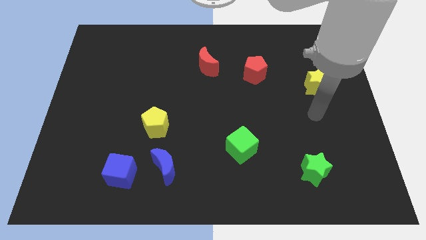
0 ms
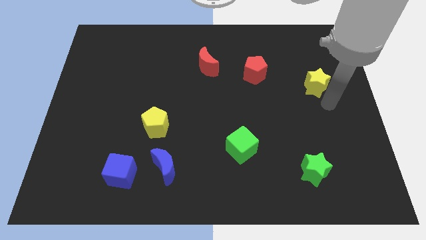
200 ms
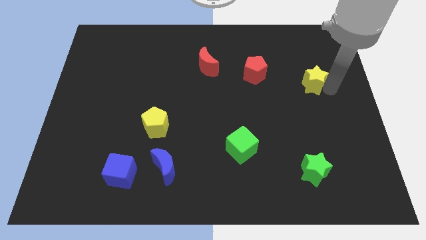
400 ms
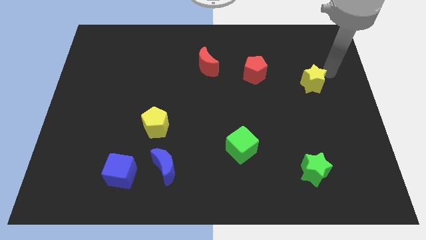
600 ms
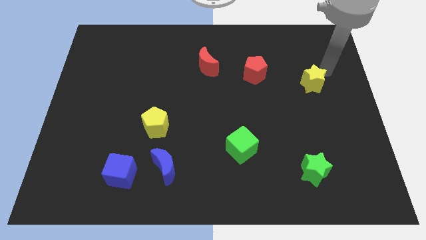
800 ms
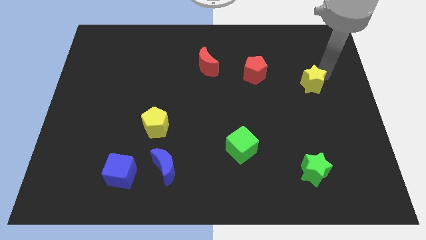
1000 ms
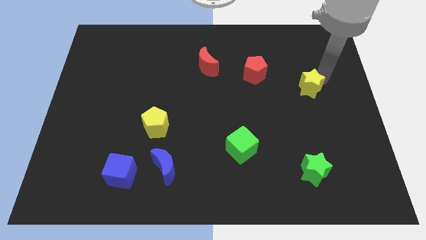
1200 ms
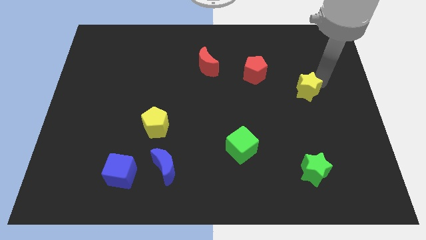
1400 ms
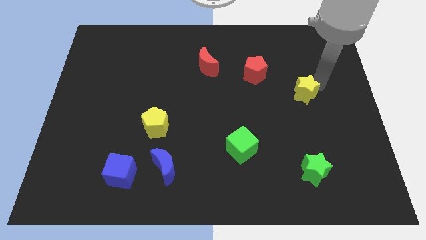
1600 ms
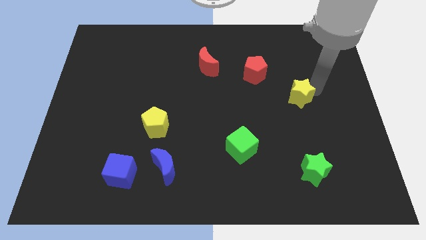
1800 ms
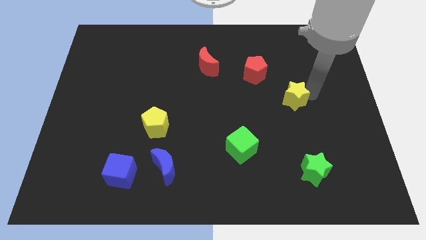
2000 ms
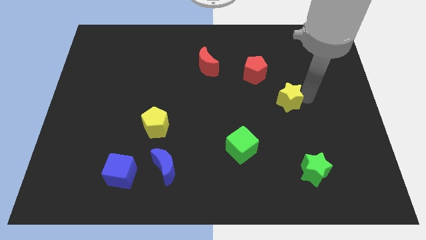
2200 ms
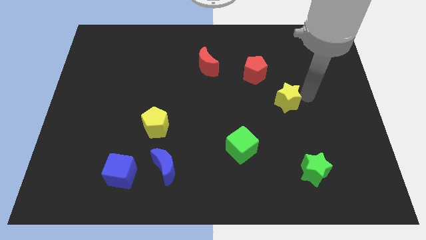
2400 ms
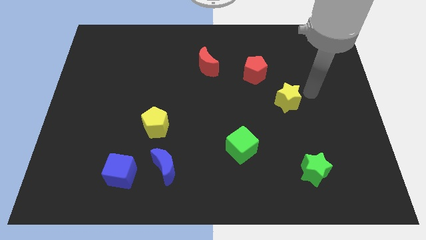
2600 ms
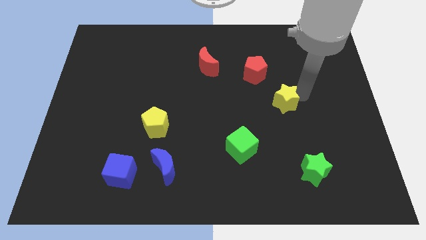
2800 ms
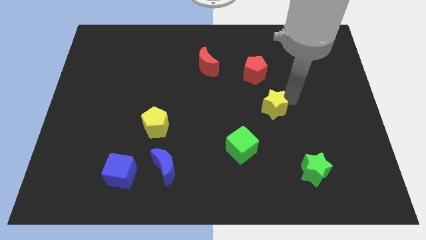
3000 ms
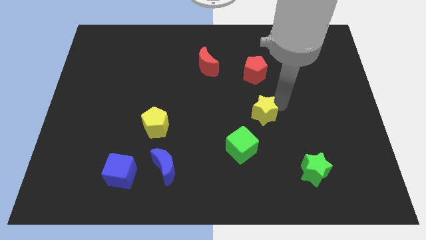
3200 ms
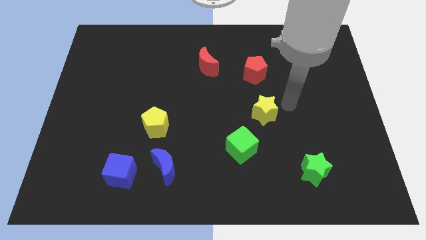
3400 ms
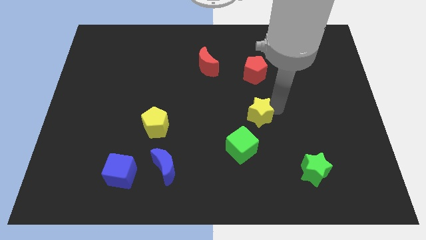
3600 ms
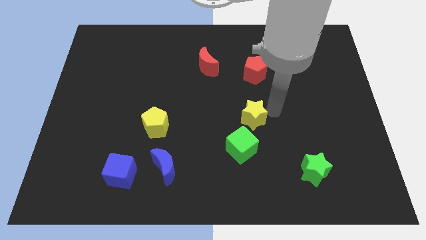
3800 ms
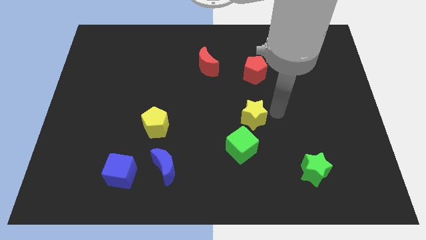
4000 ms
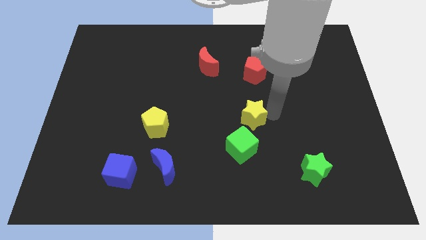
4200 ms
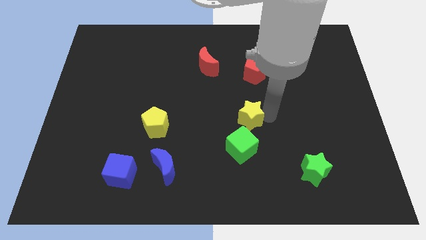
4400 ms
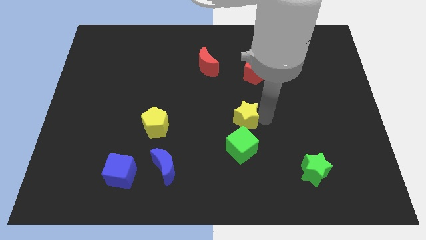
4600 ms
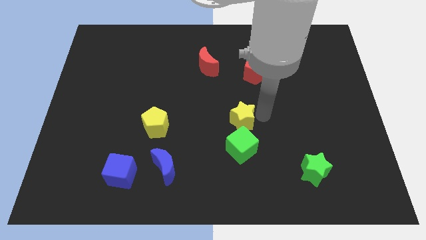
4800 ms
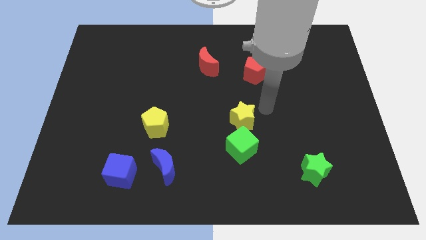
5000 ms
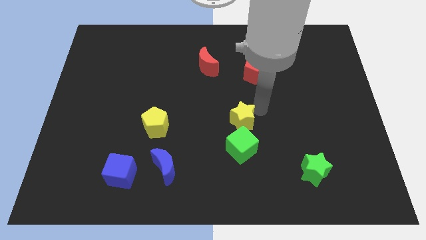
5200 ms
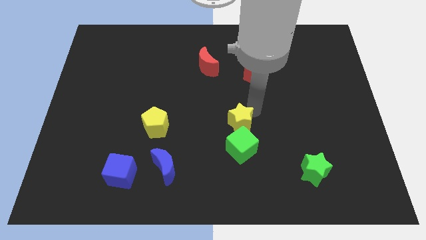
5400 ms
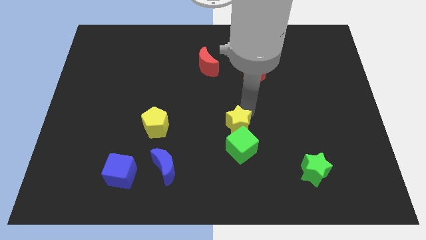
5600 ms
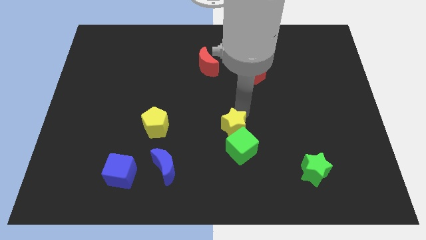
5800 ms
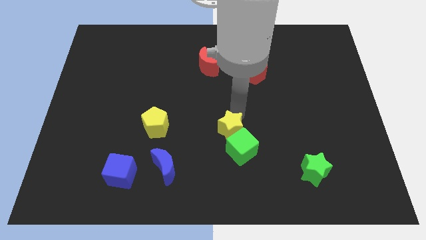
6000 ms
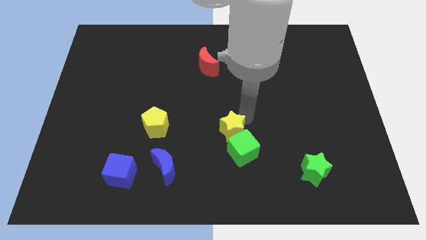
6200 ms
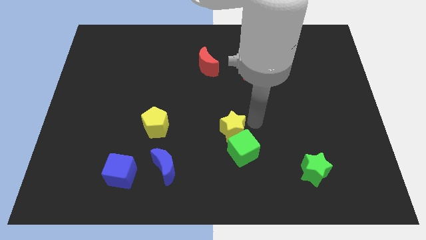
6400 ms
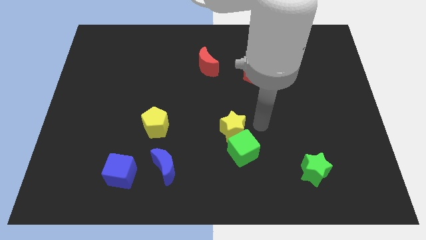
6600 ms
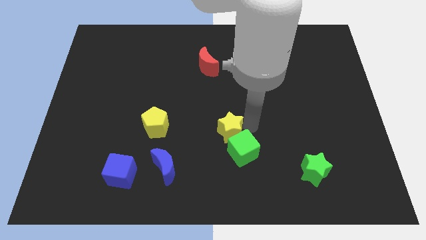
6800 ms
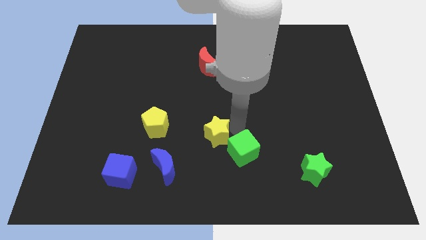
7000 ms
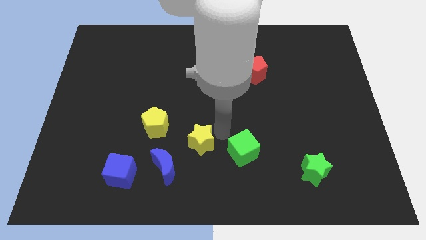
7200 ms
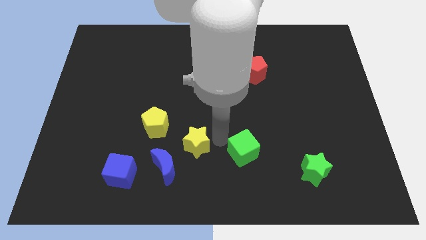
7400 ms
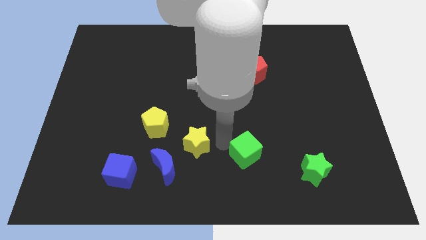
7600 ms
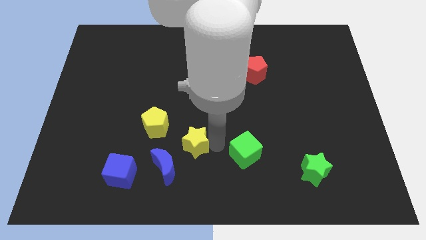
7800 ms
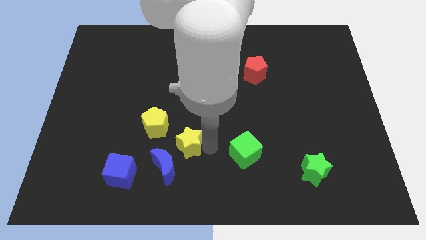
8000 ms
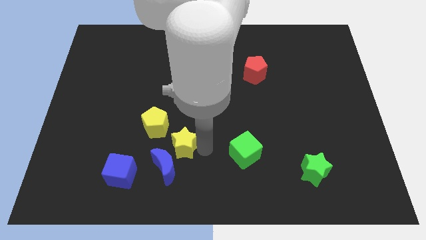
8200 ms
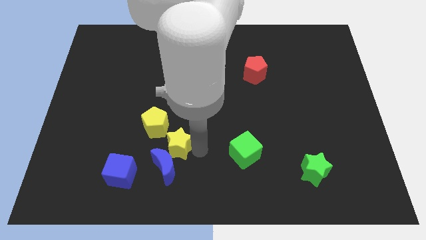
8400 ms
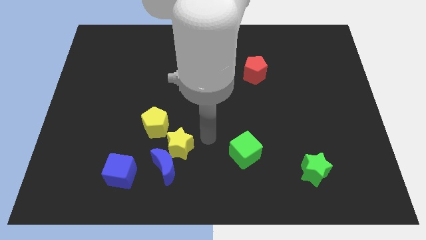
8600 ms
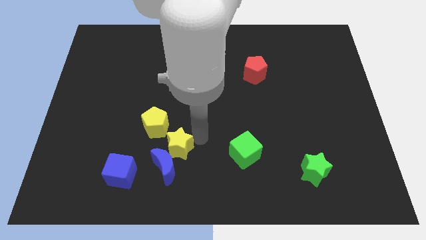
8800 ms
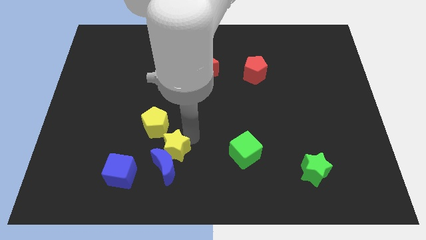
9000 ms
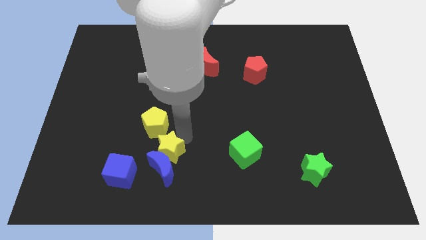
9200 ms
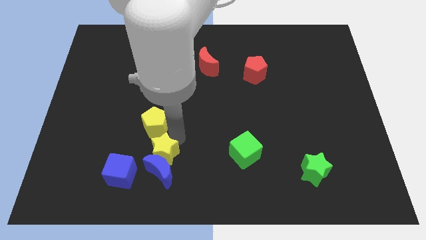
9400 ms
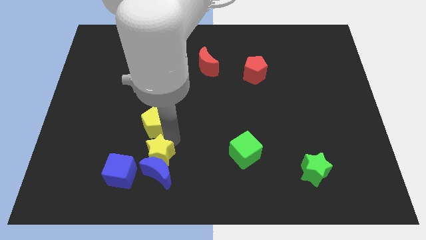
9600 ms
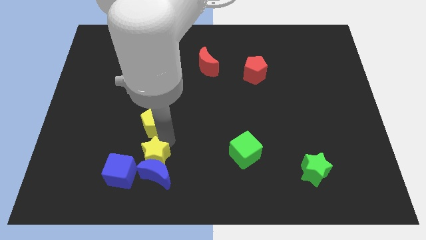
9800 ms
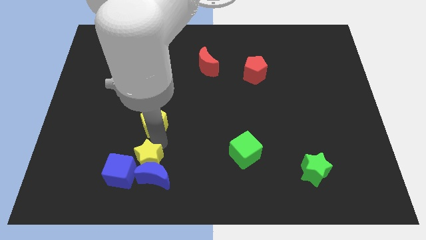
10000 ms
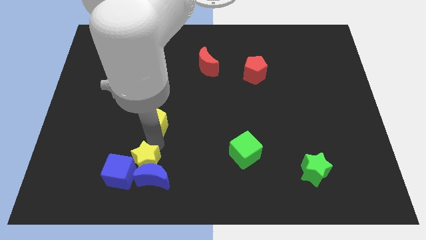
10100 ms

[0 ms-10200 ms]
move the yellow star towards the blue cube

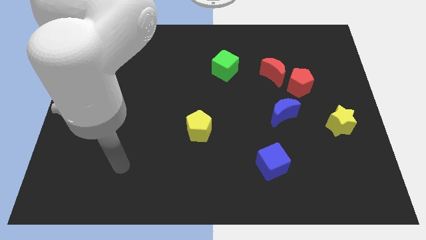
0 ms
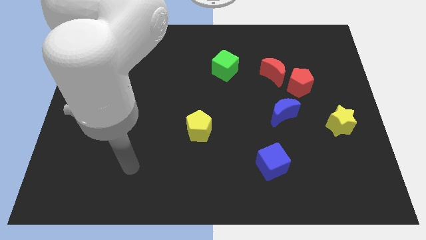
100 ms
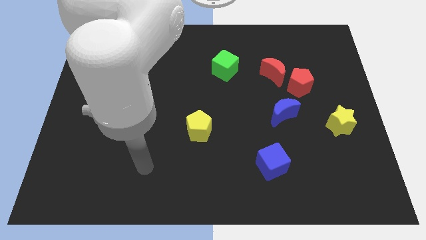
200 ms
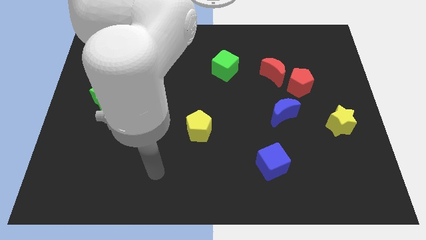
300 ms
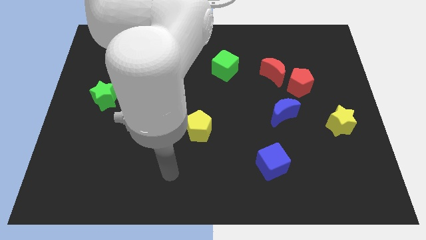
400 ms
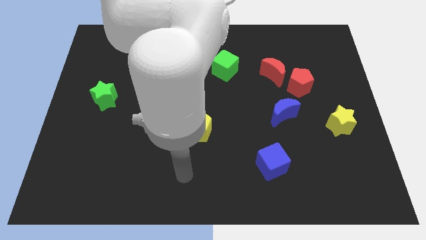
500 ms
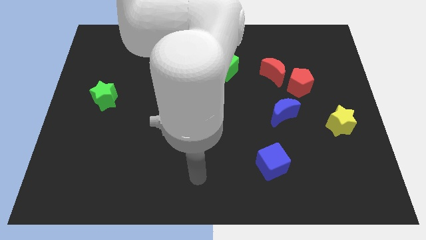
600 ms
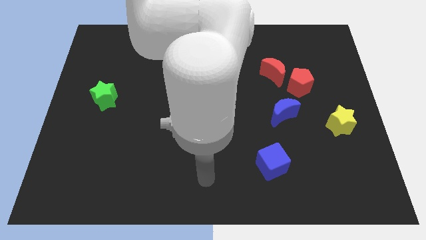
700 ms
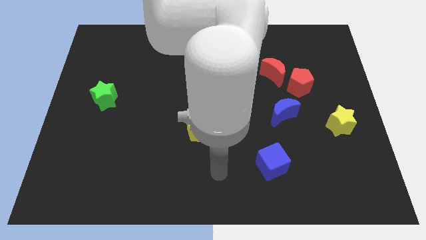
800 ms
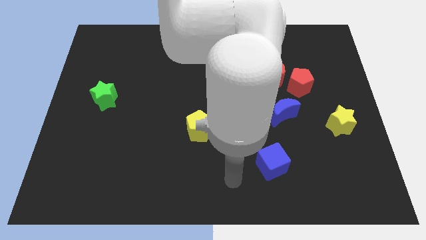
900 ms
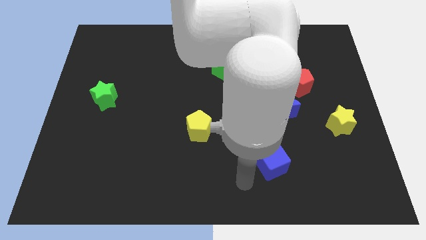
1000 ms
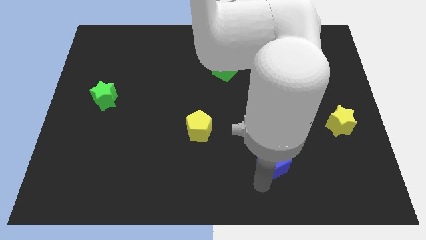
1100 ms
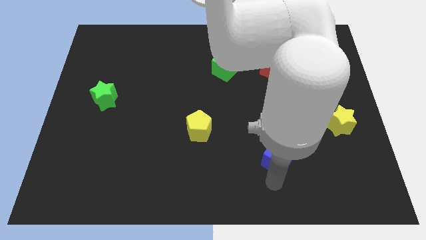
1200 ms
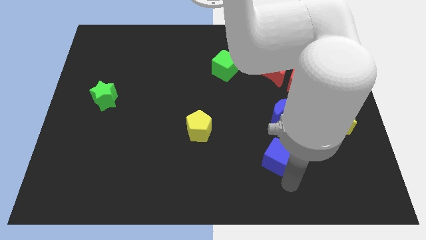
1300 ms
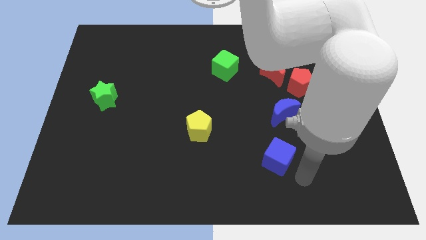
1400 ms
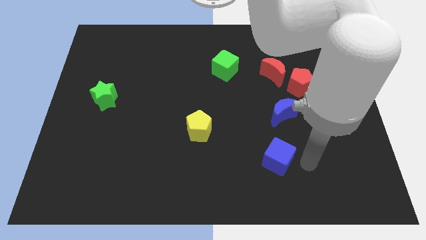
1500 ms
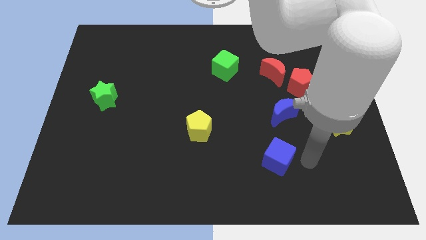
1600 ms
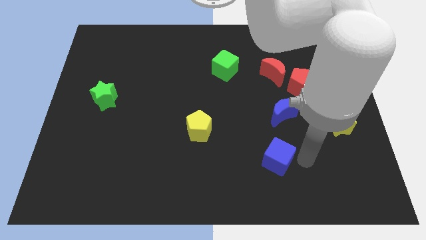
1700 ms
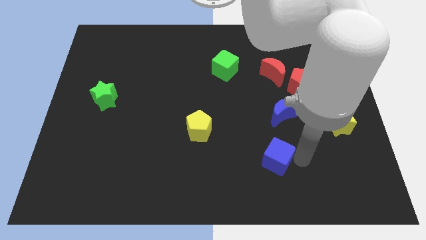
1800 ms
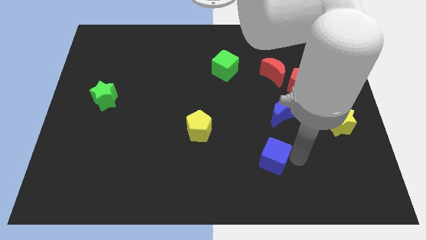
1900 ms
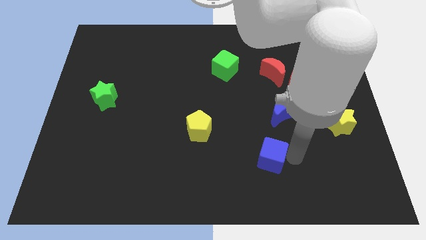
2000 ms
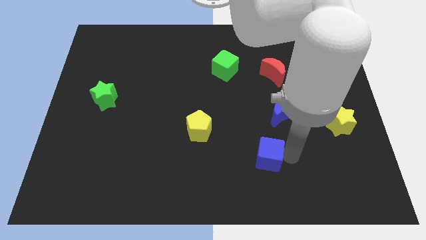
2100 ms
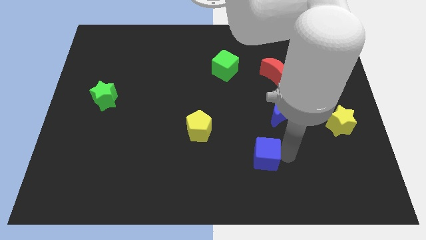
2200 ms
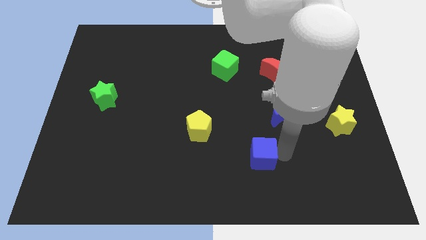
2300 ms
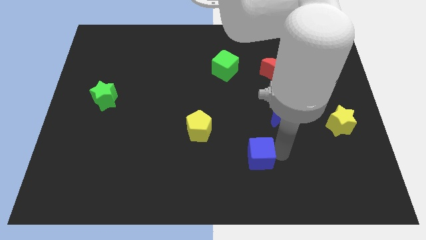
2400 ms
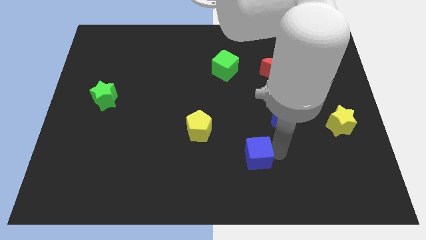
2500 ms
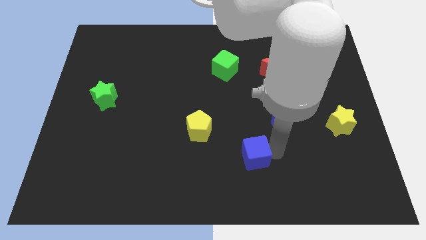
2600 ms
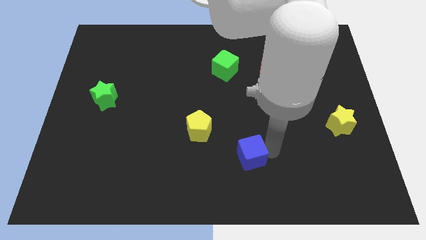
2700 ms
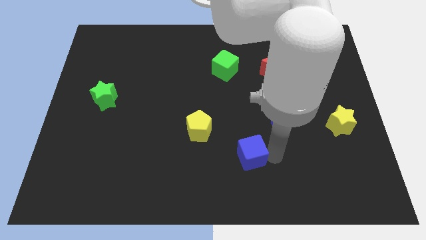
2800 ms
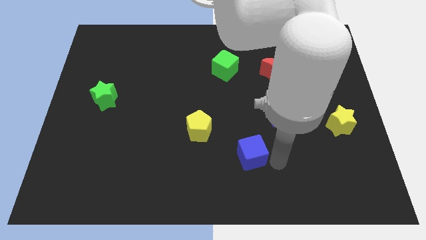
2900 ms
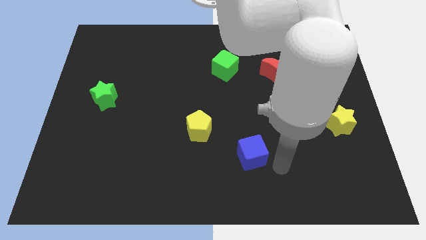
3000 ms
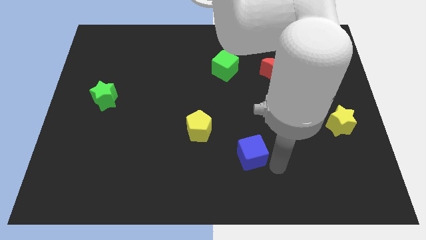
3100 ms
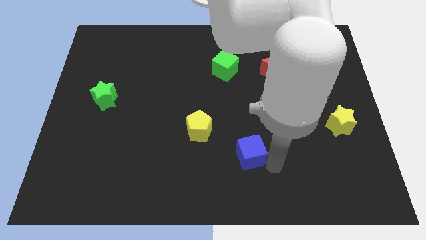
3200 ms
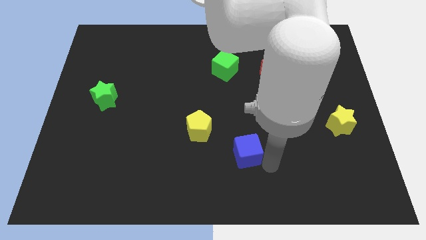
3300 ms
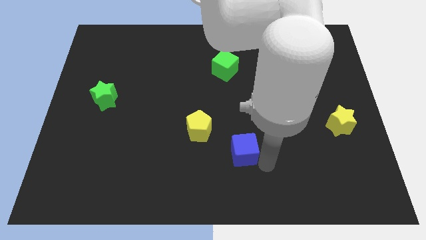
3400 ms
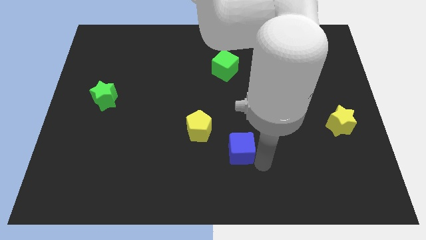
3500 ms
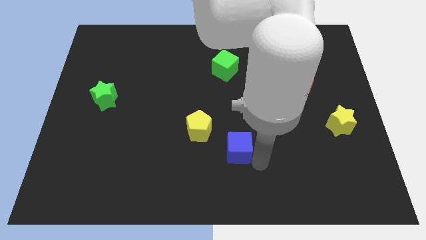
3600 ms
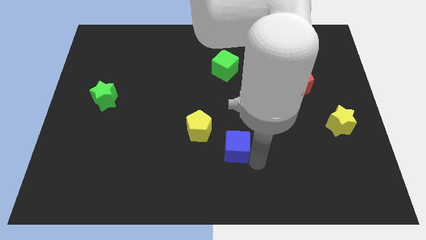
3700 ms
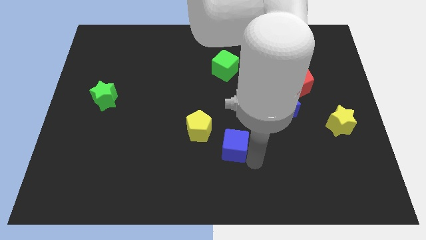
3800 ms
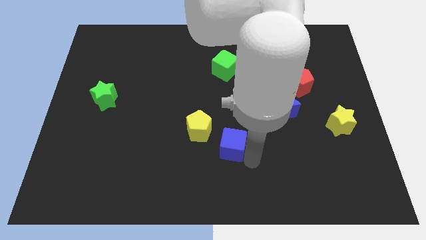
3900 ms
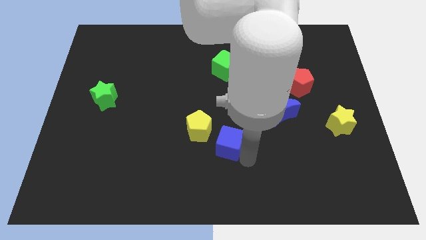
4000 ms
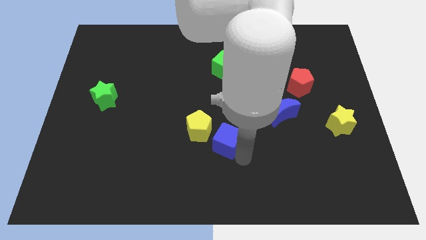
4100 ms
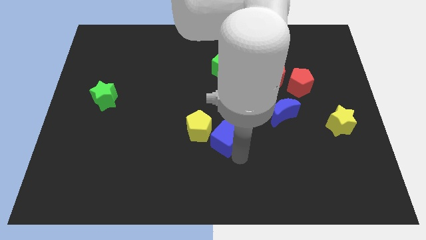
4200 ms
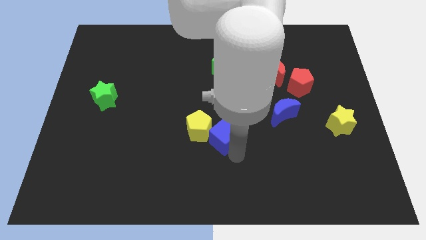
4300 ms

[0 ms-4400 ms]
push the blue cube close to the yellow pentagon
